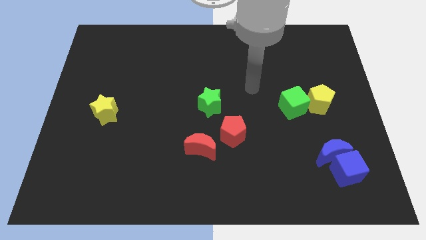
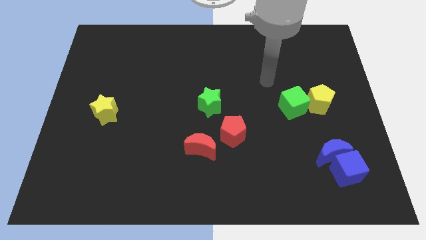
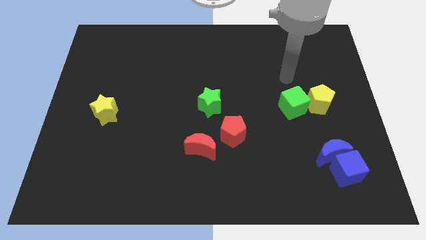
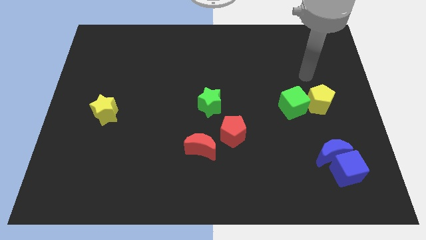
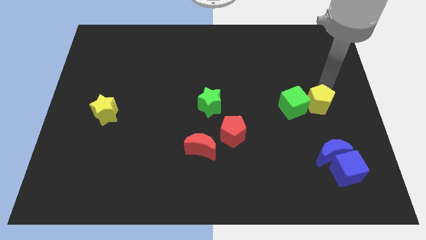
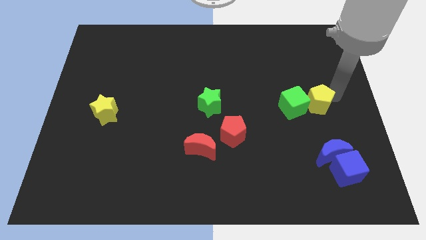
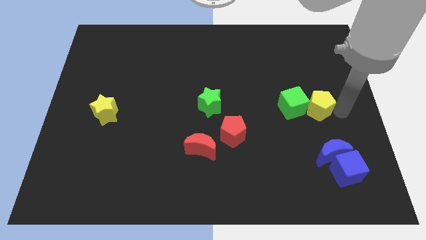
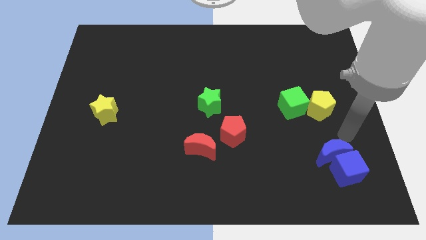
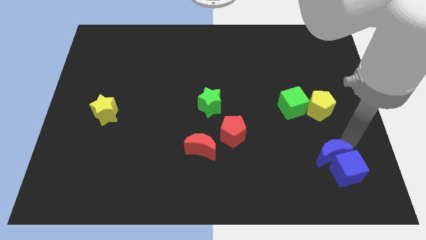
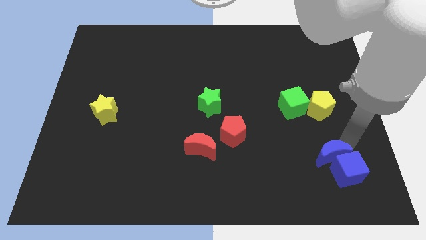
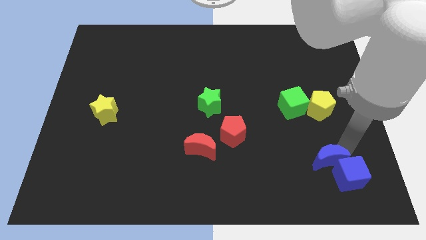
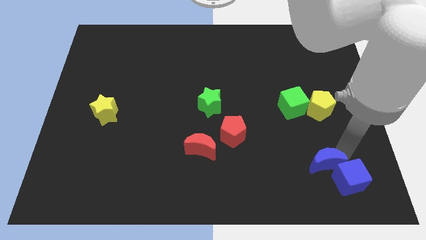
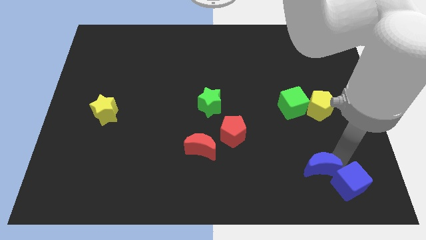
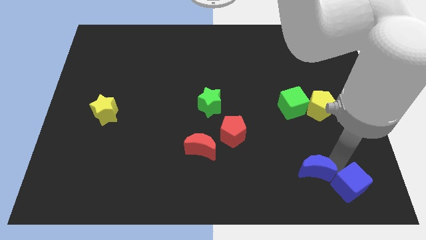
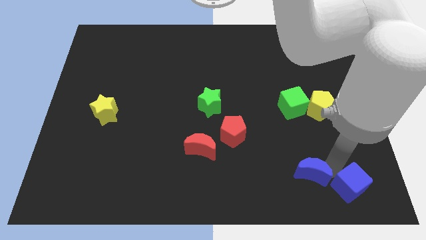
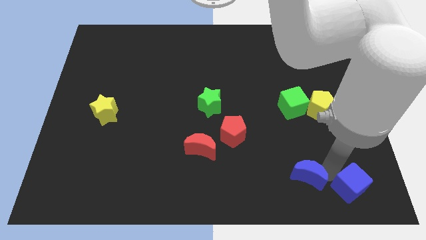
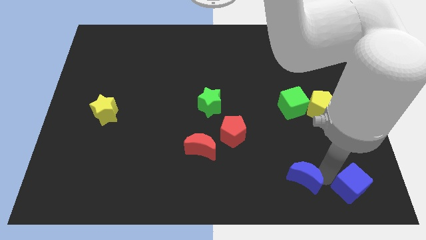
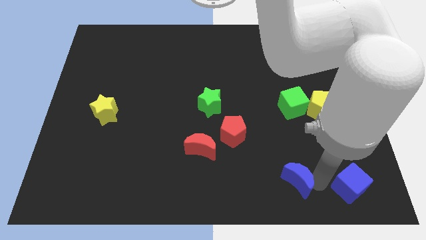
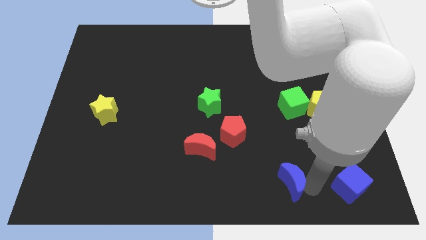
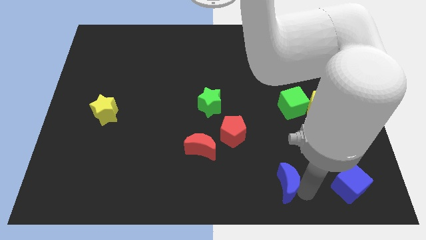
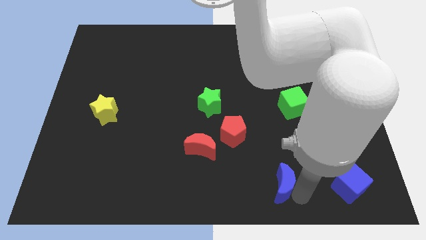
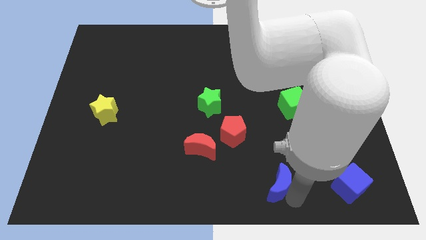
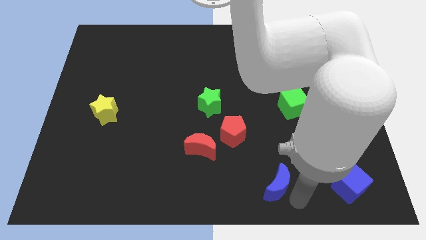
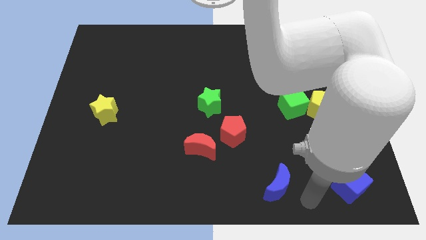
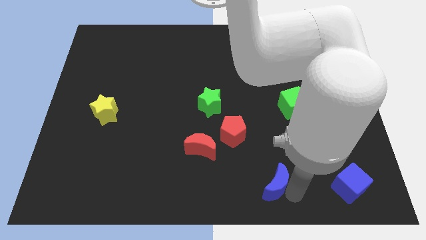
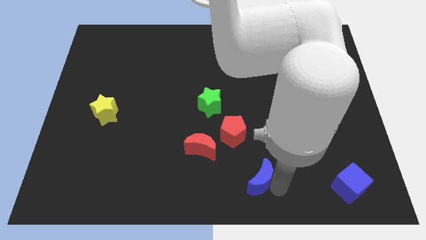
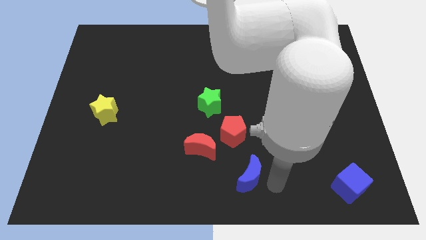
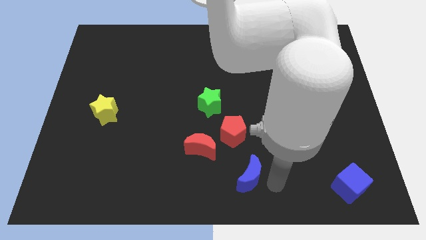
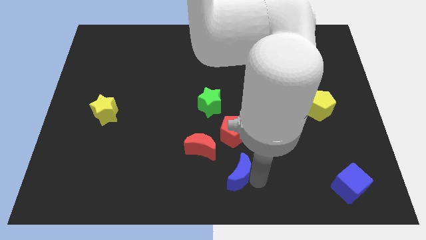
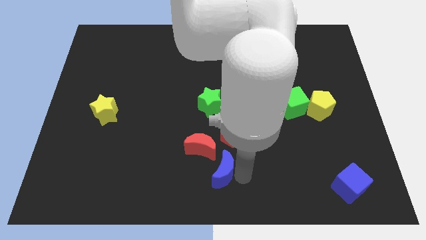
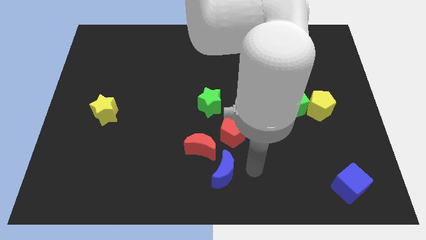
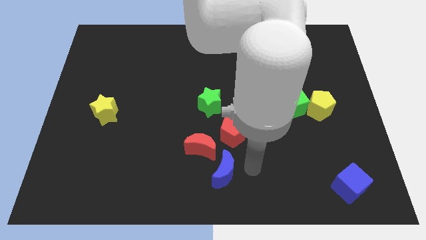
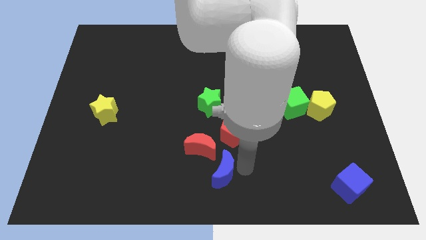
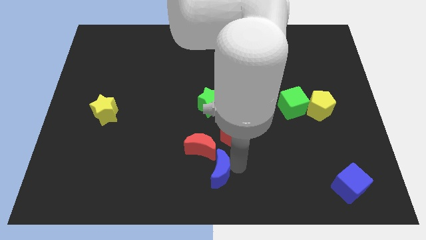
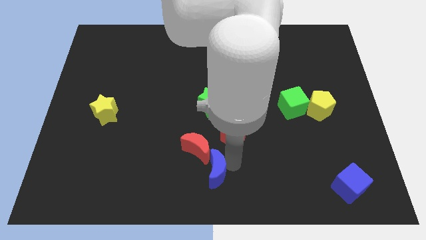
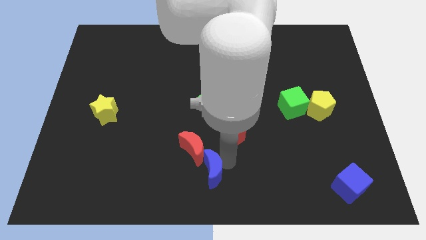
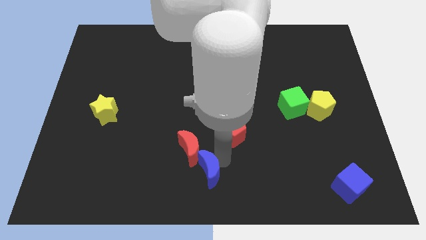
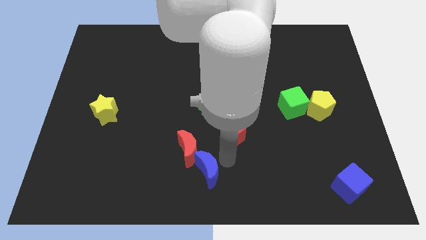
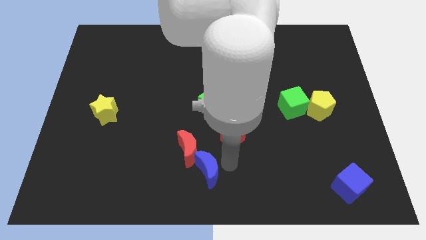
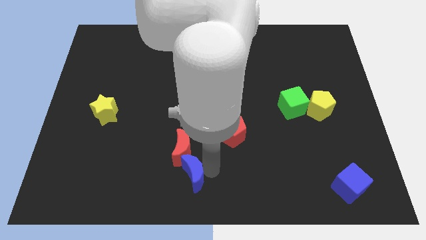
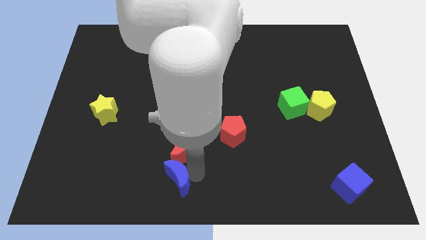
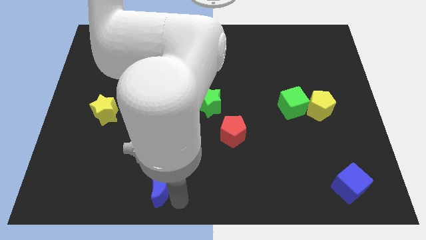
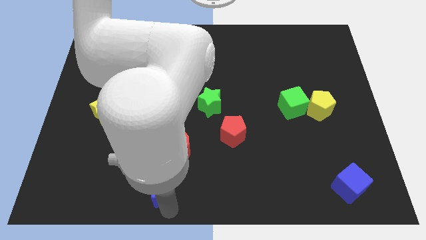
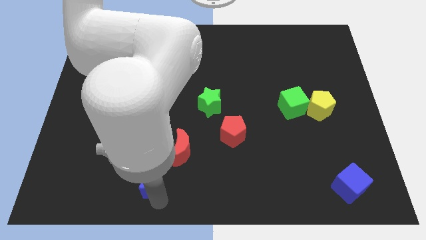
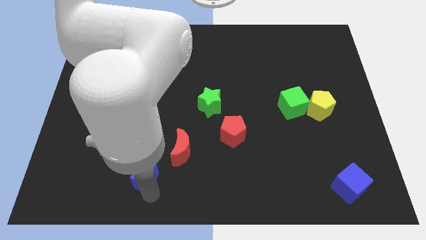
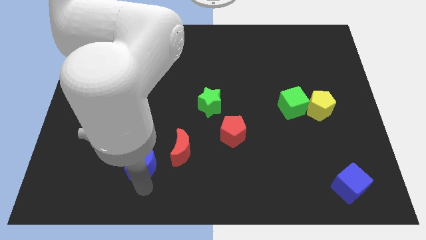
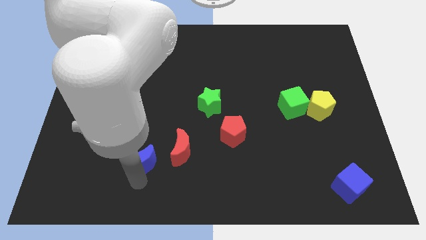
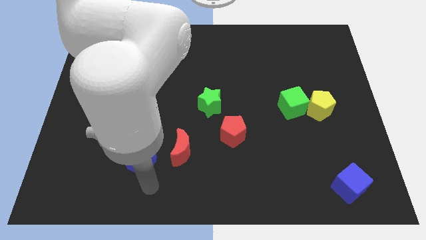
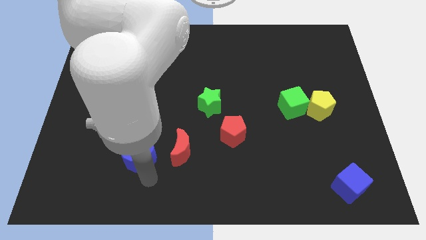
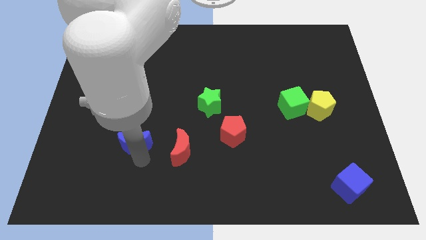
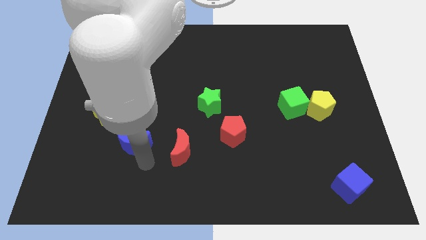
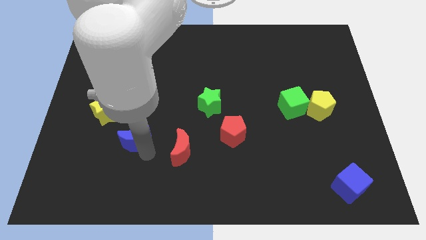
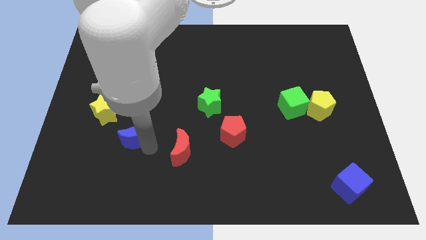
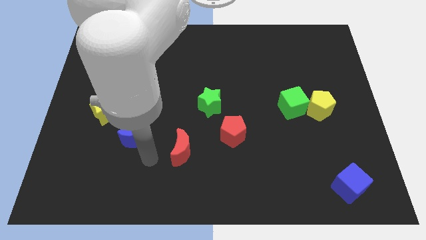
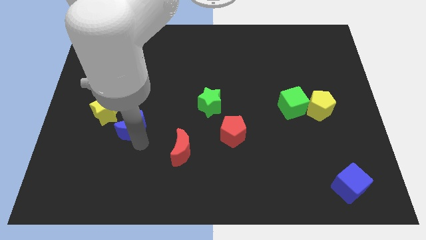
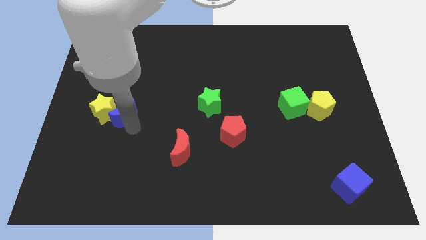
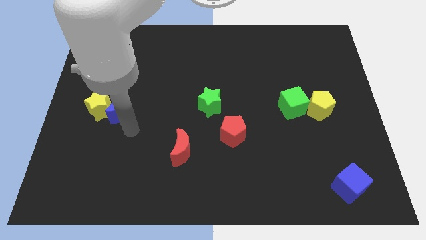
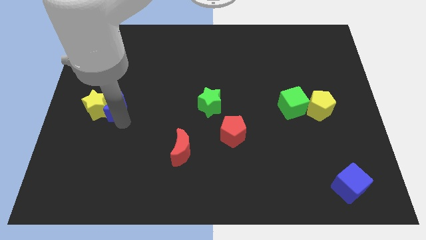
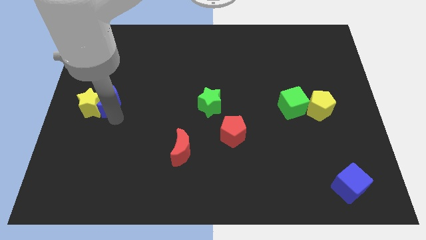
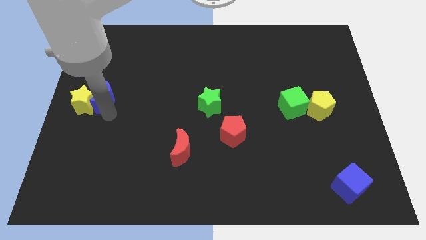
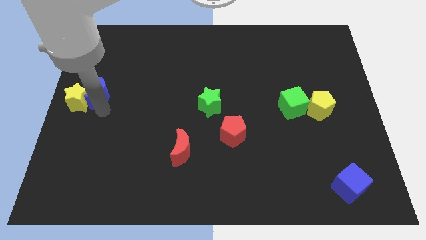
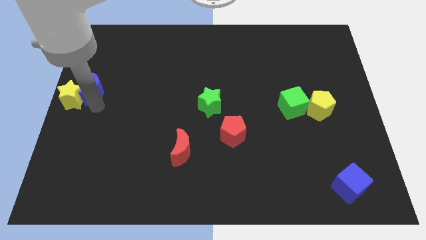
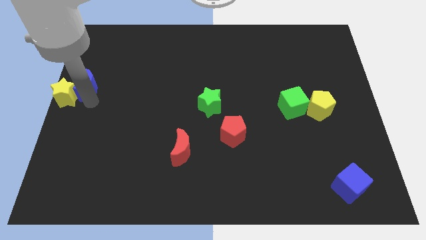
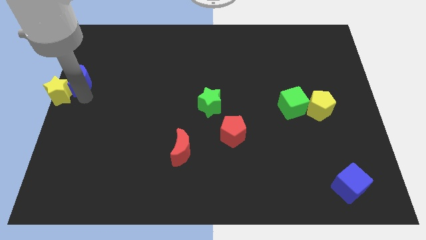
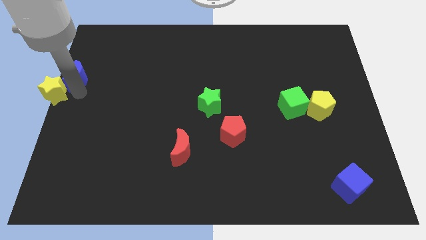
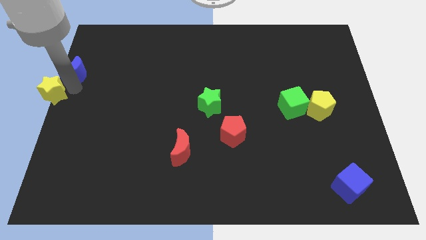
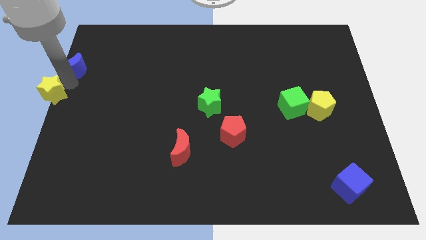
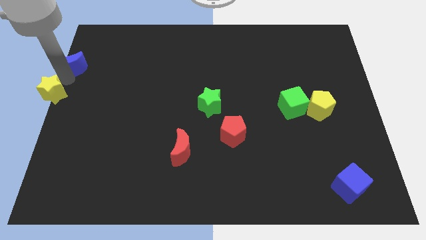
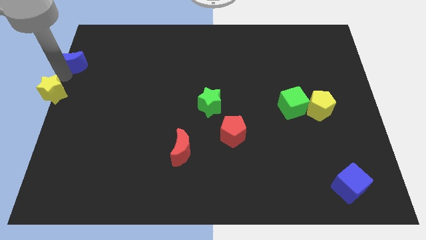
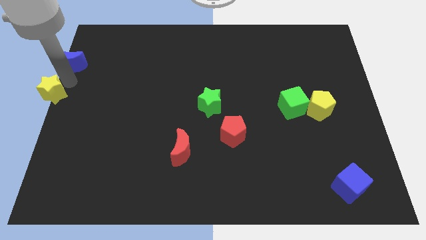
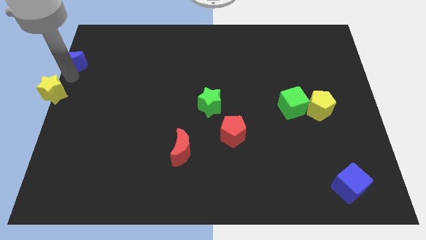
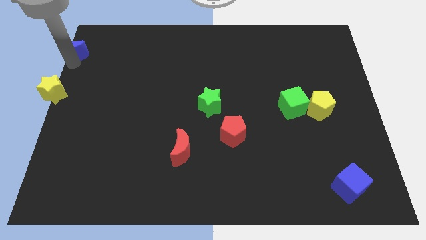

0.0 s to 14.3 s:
move the blue moon to the upper left corner

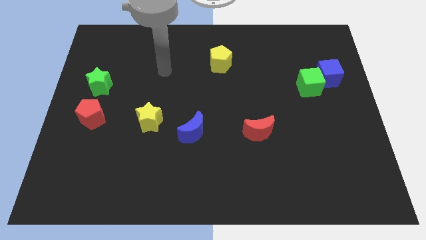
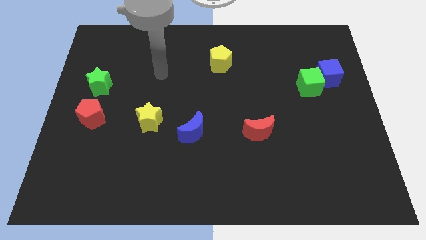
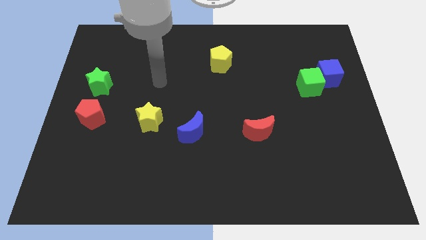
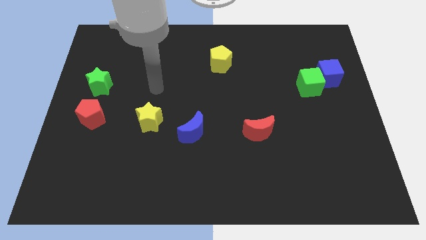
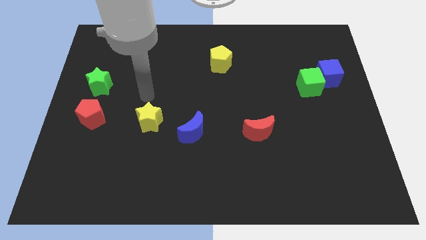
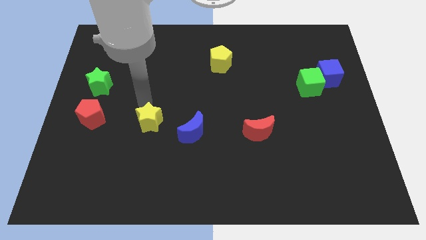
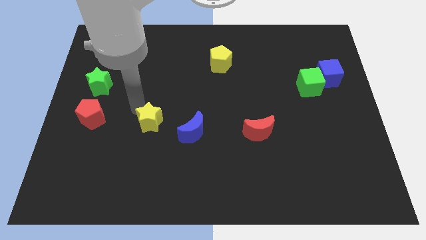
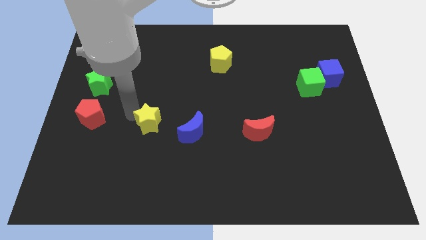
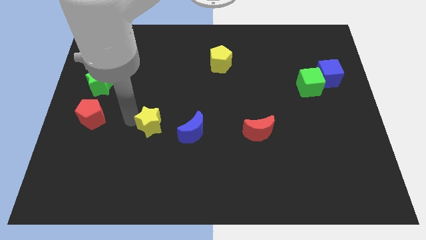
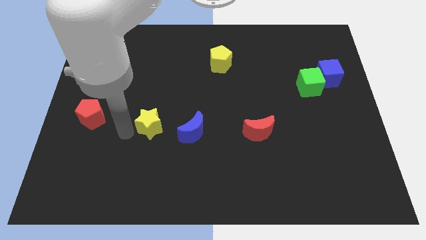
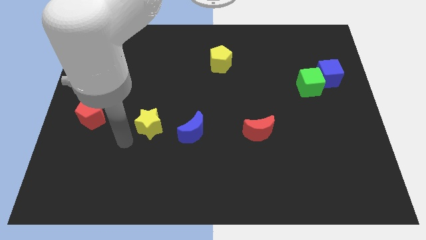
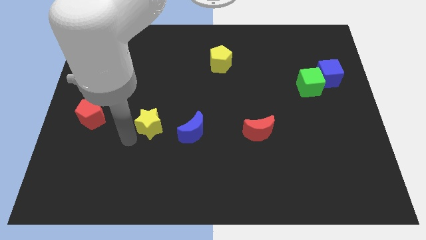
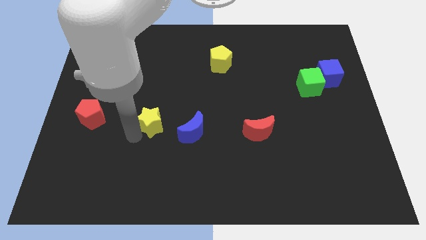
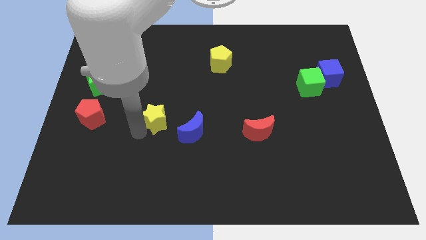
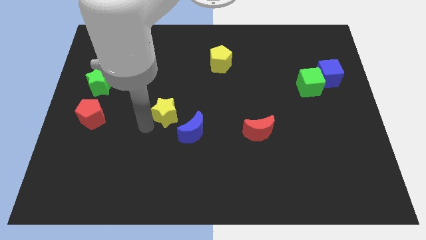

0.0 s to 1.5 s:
push the yellow star to the center of the board
